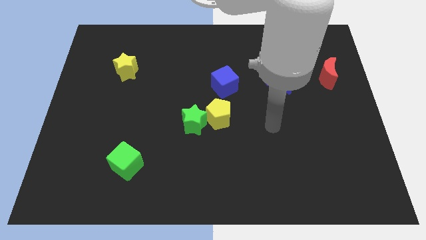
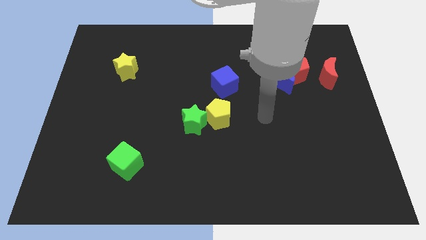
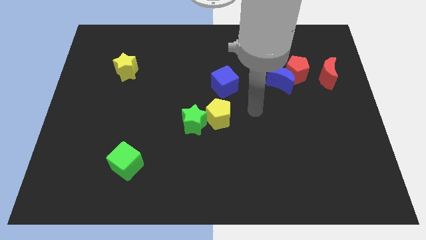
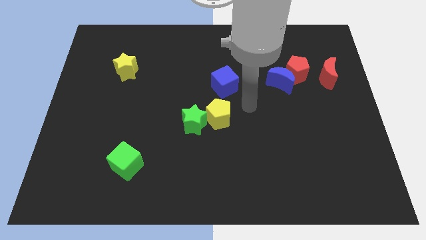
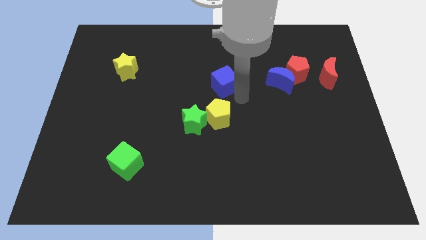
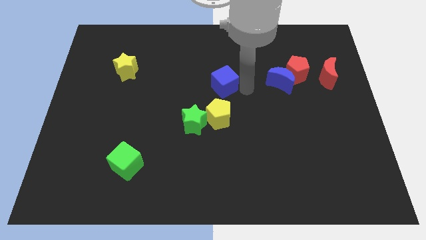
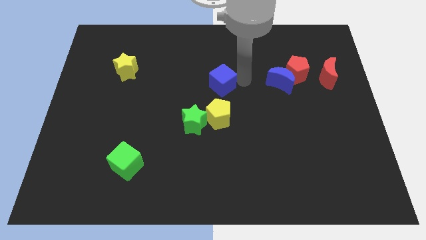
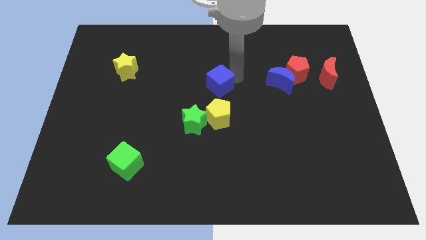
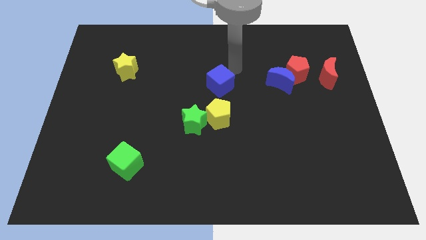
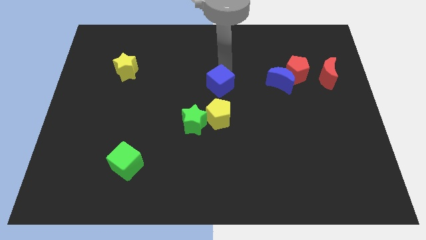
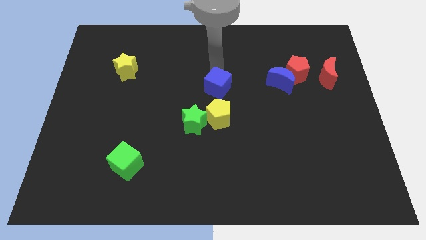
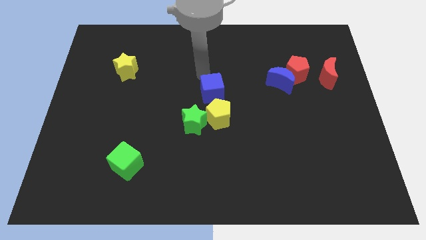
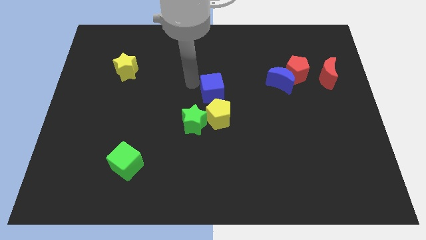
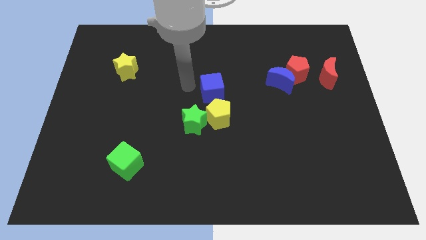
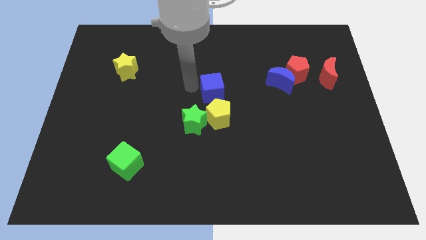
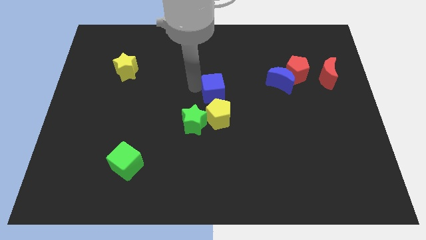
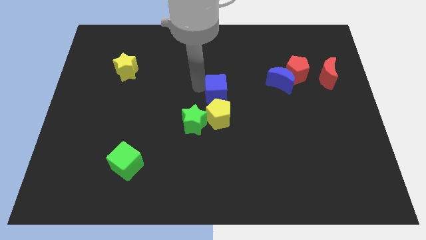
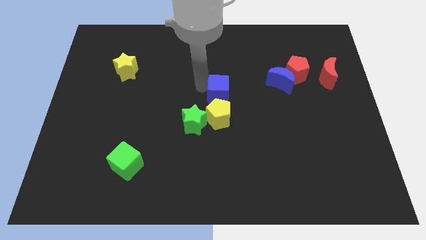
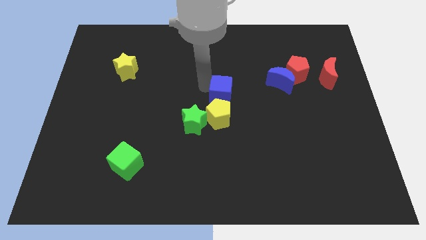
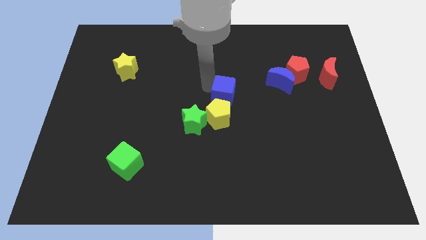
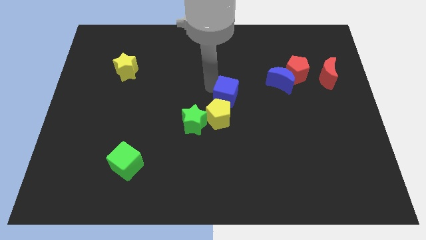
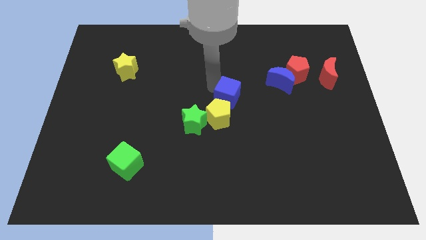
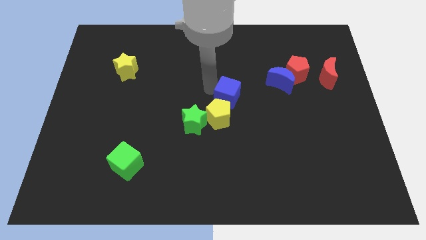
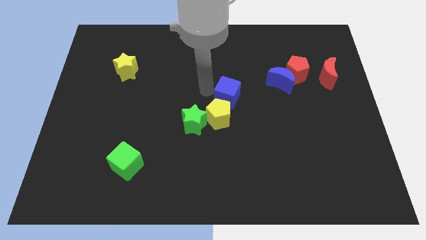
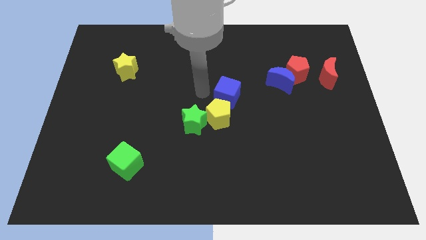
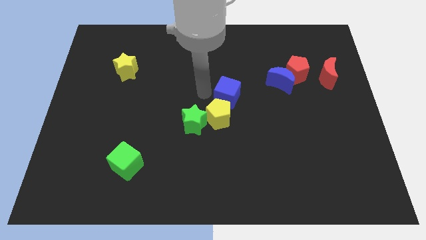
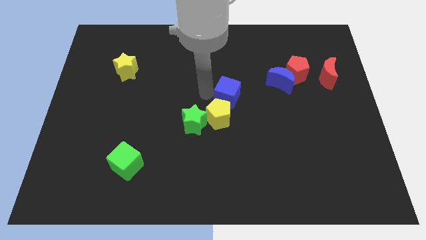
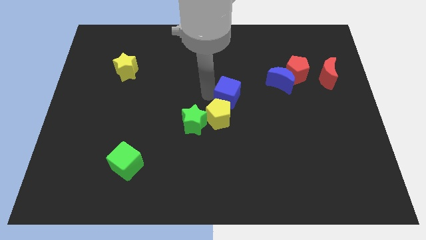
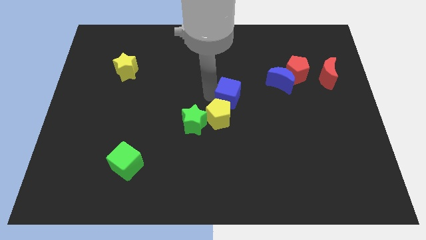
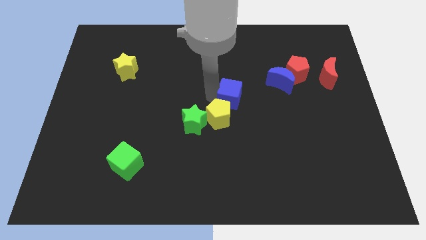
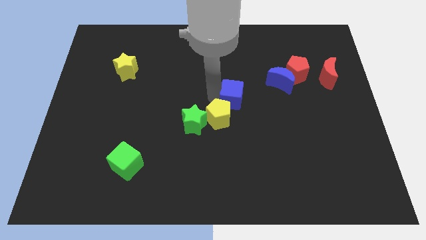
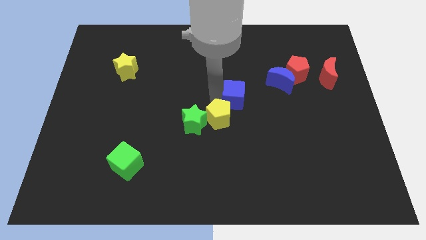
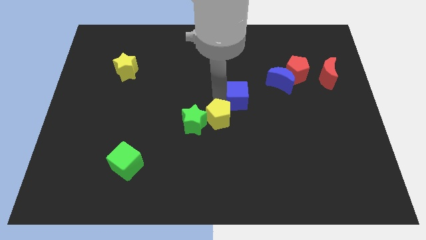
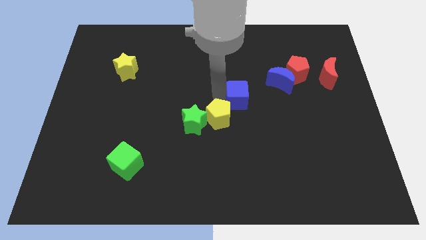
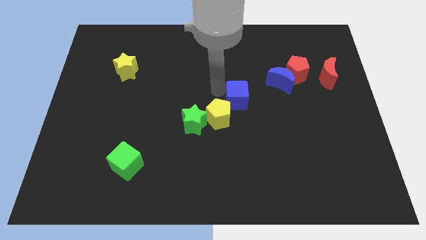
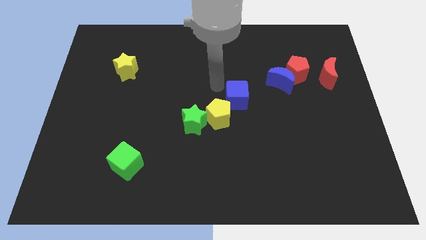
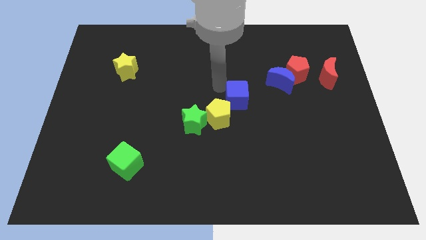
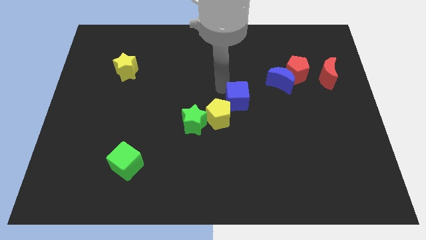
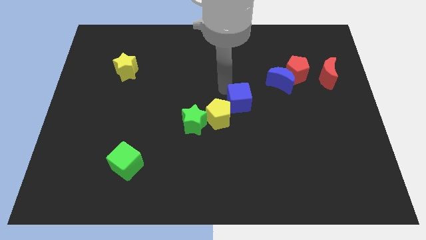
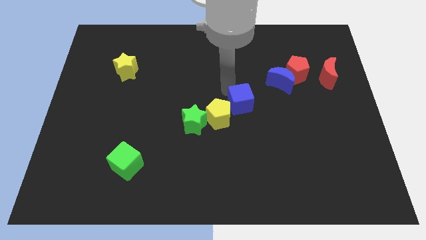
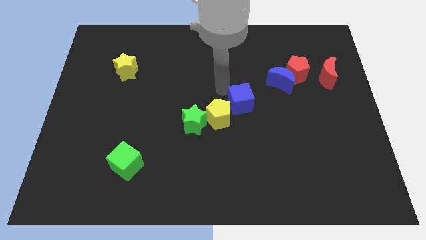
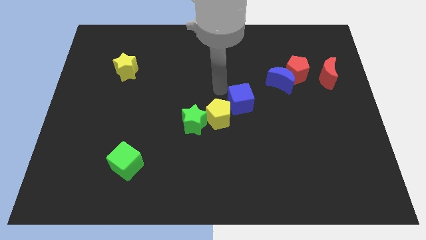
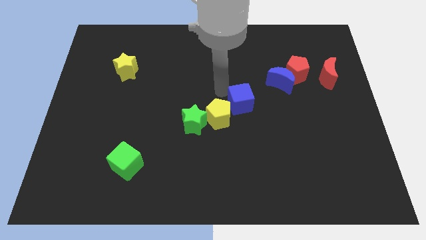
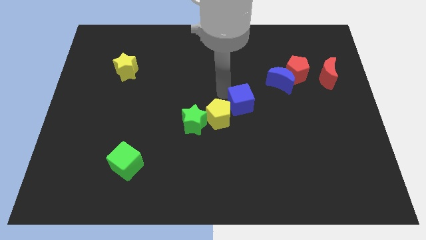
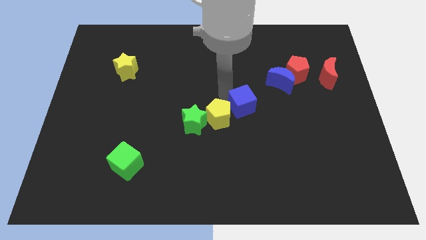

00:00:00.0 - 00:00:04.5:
slide the blue cube slightly downwards and then to the right

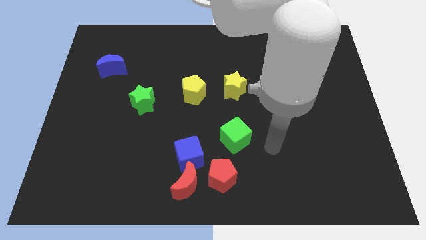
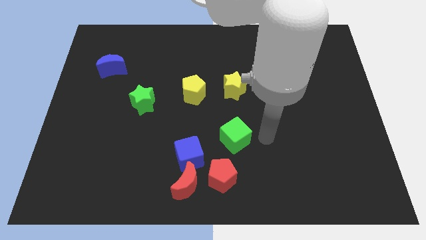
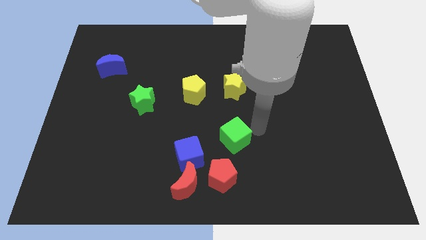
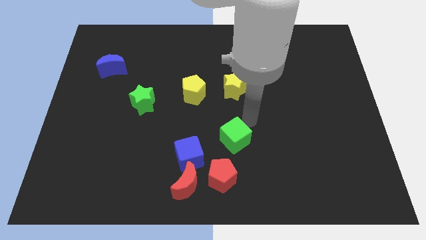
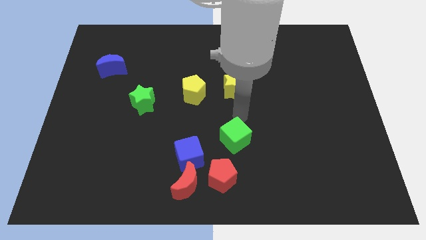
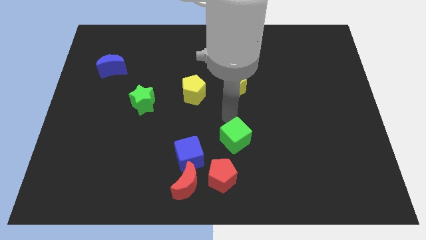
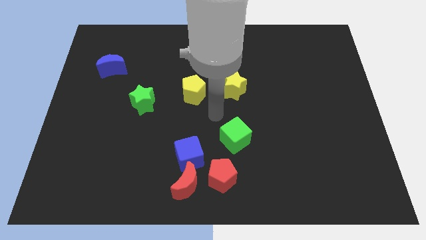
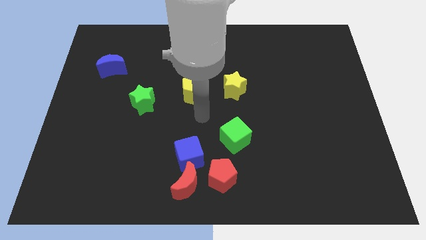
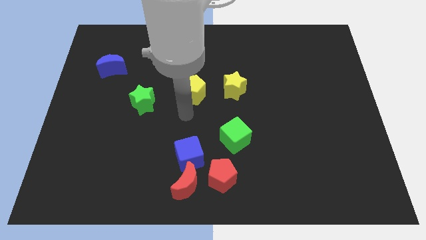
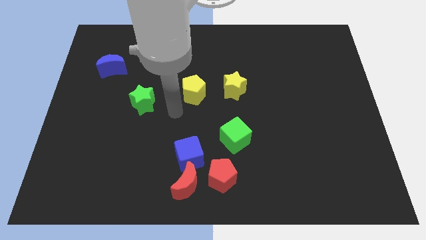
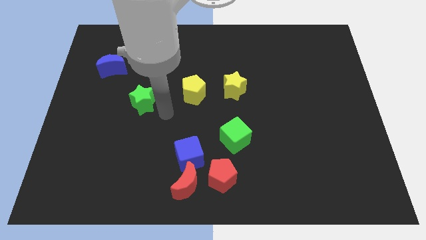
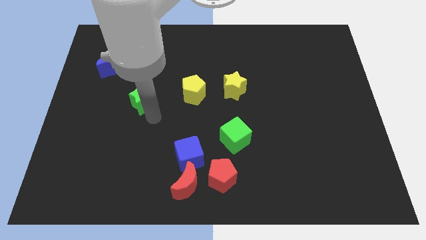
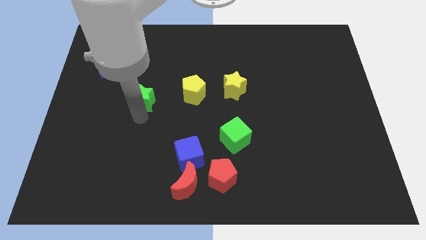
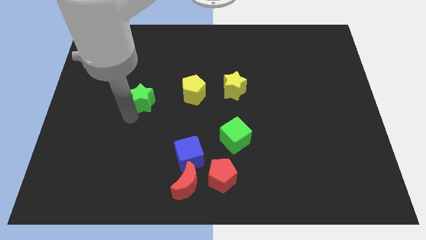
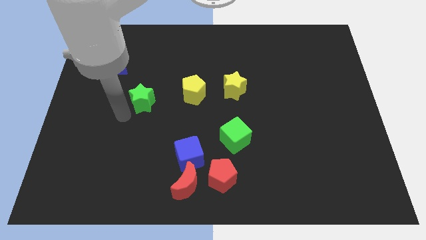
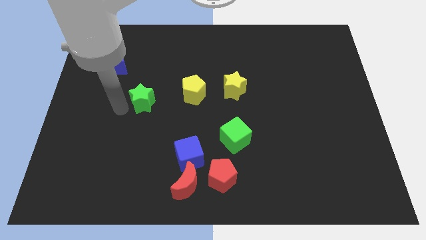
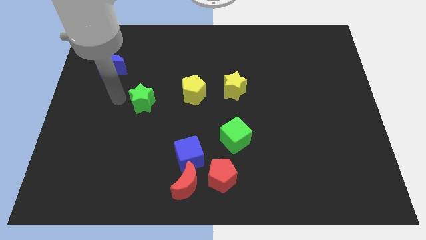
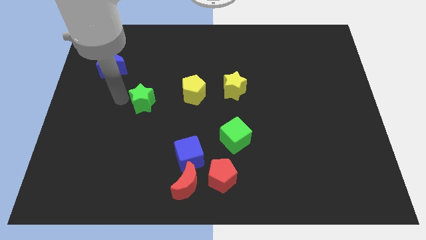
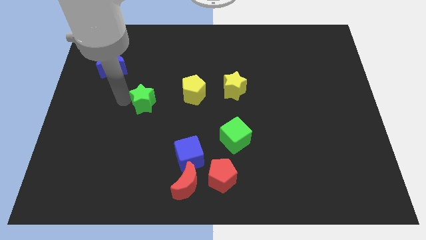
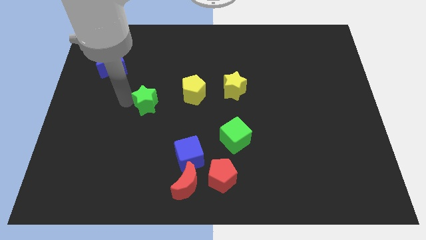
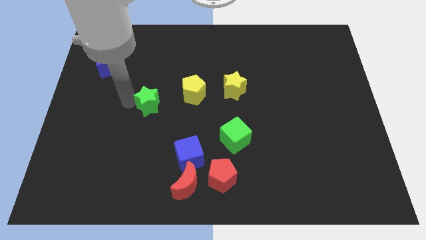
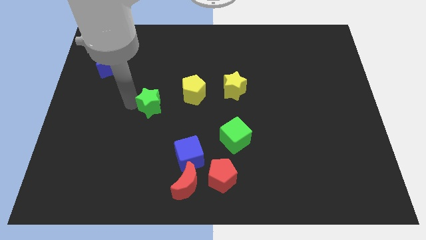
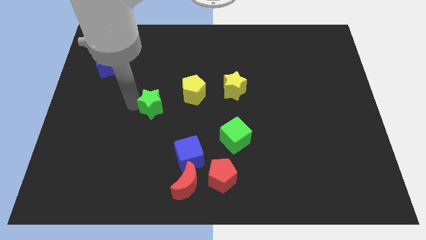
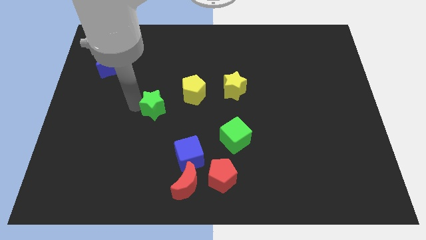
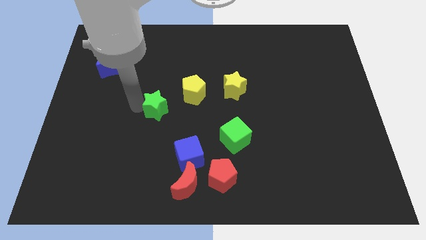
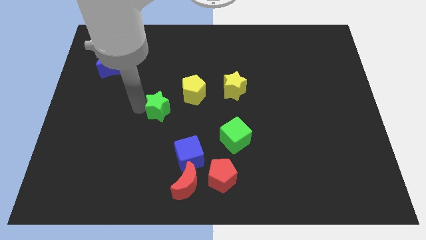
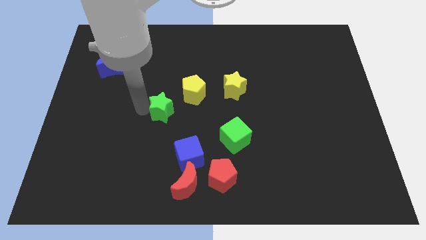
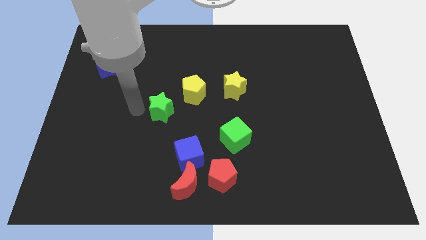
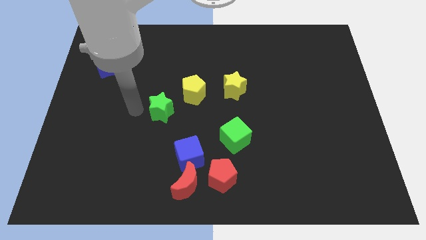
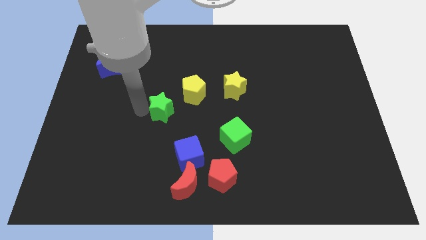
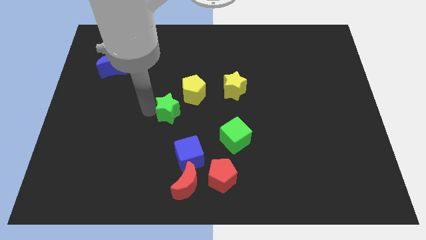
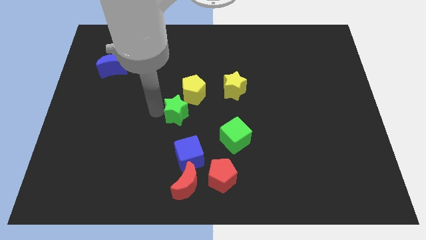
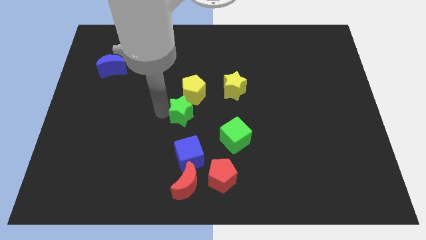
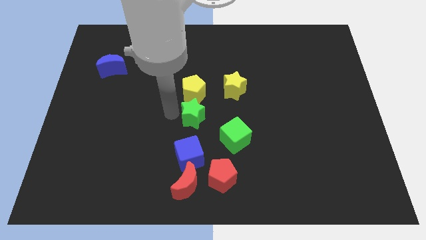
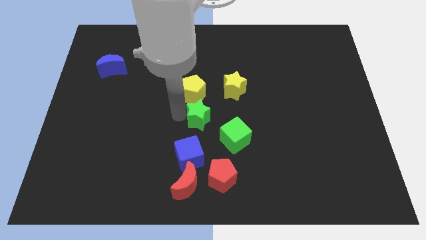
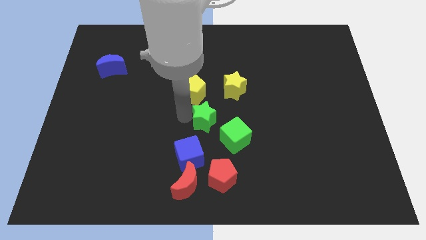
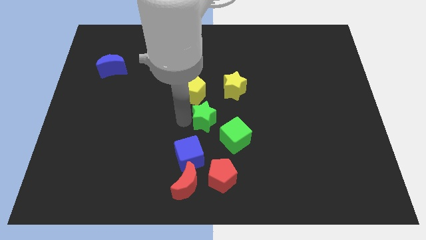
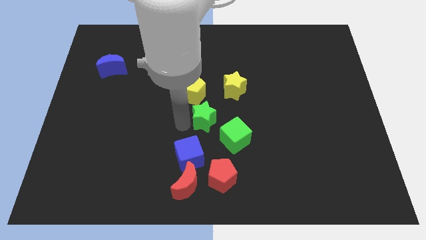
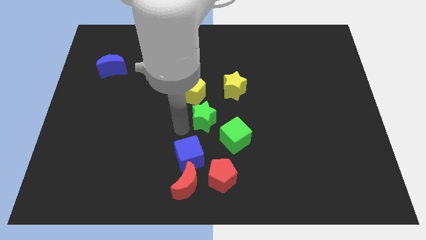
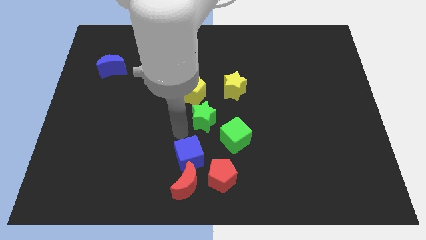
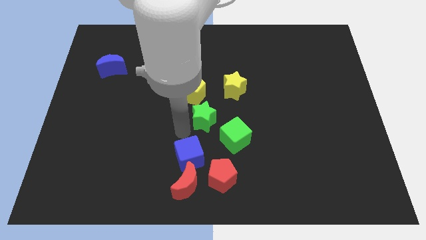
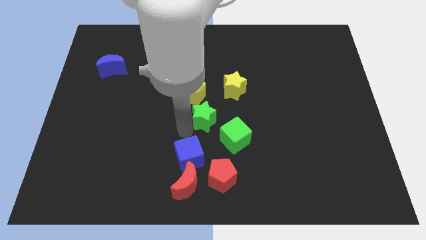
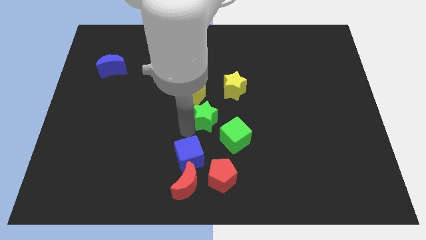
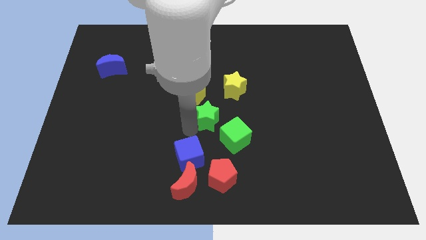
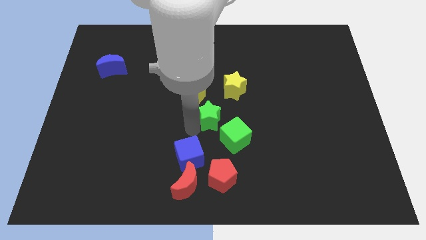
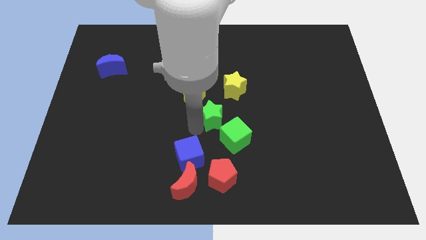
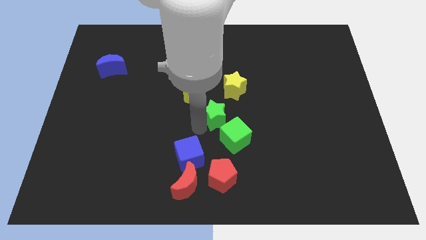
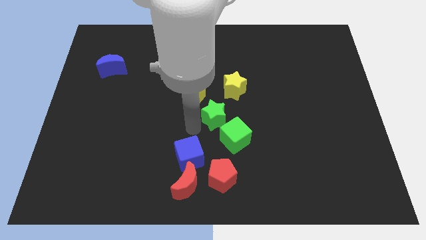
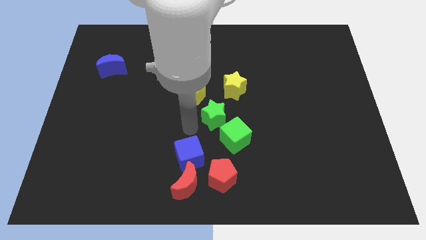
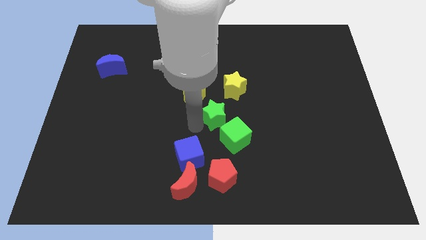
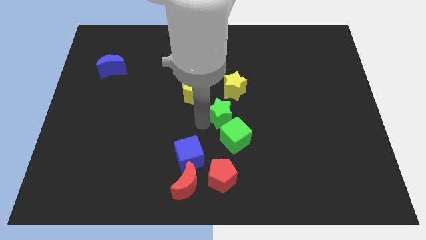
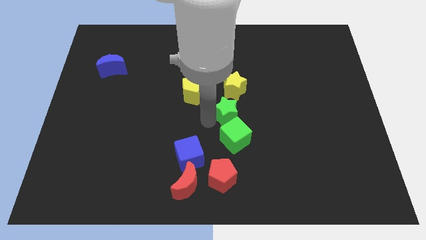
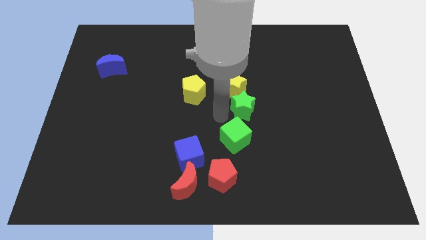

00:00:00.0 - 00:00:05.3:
move the green star to the right
